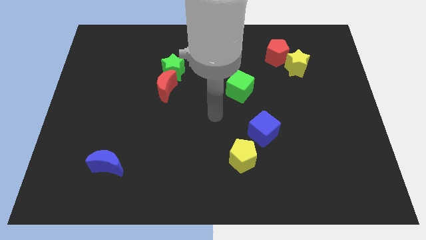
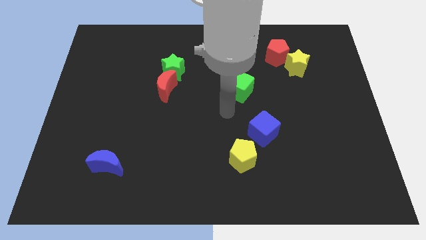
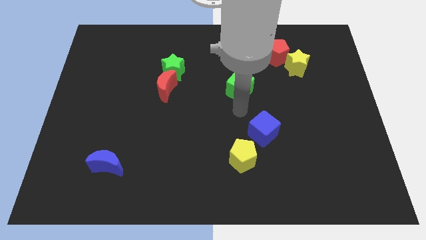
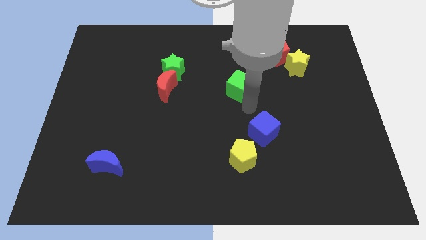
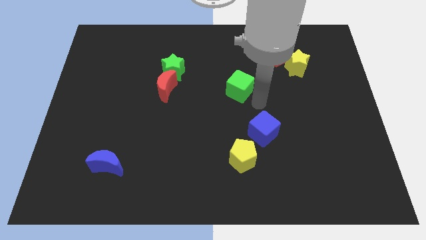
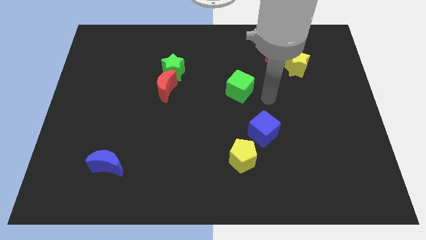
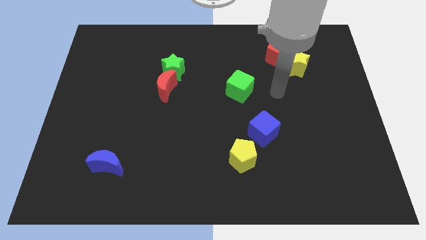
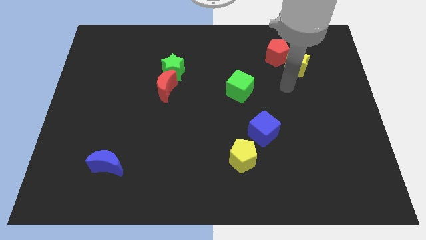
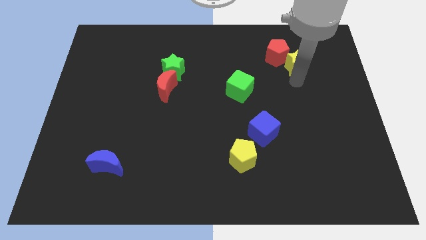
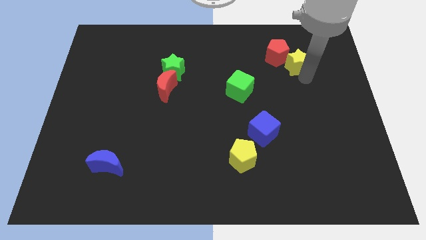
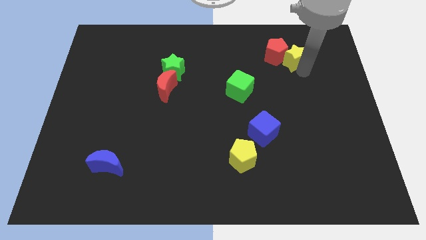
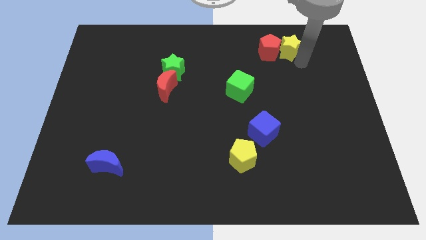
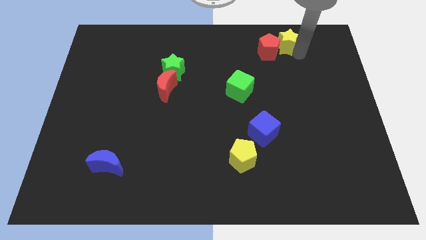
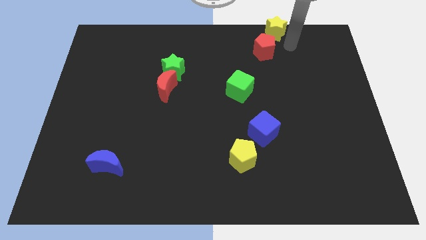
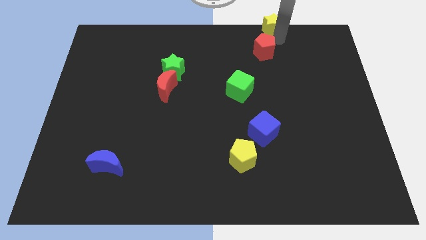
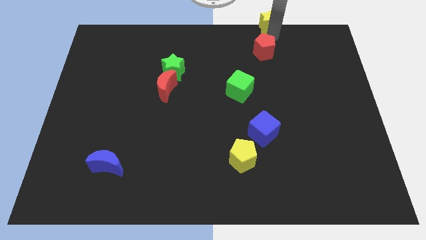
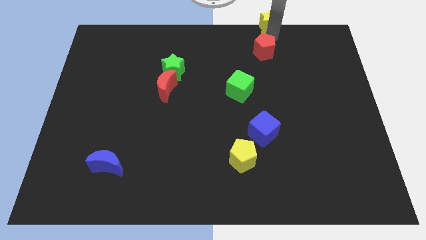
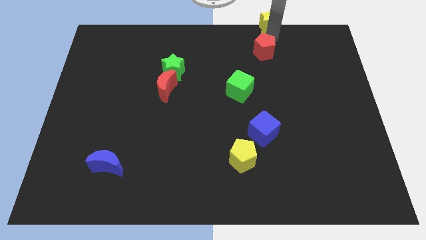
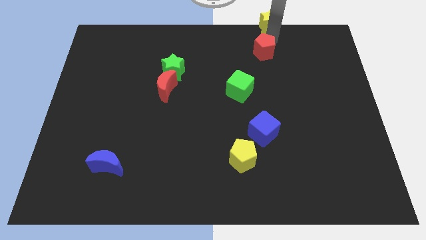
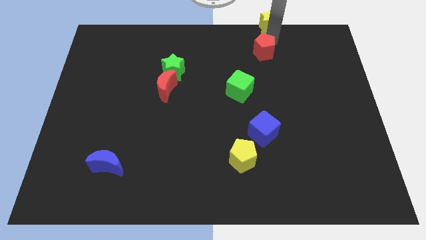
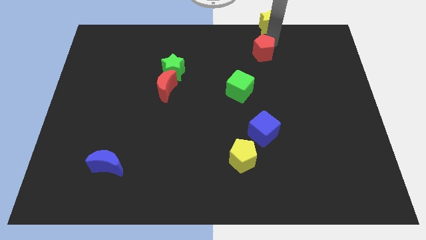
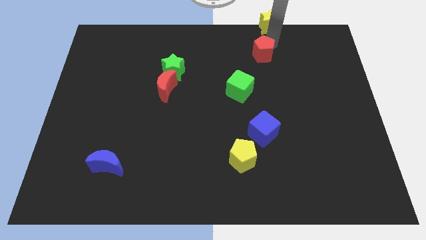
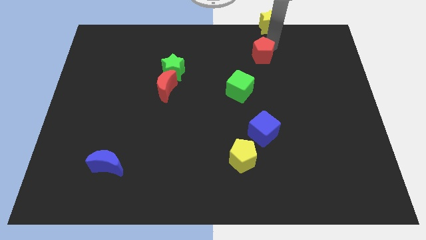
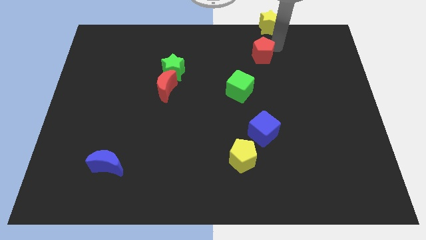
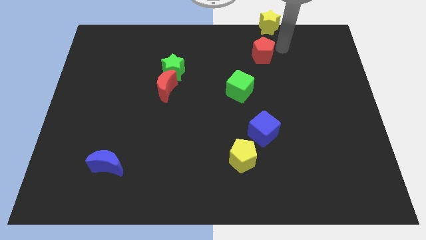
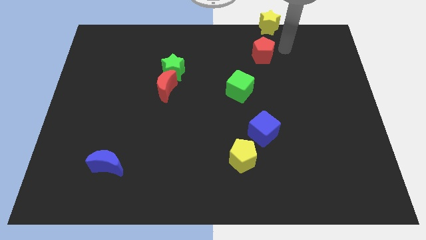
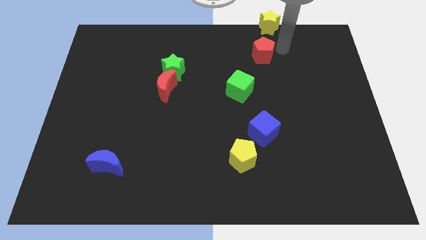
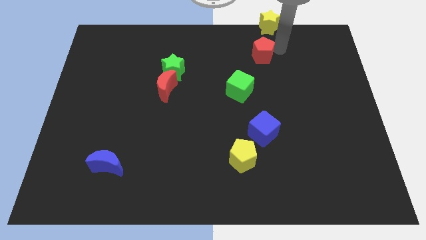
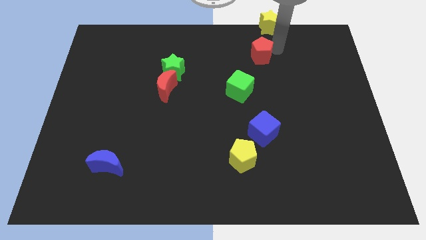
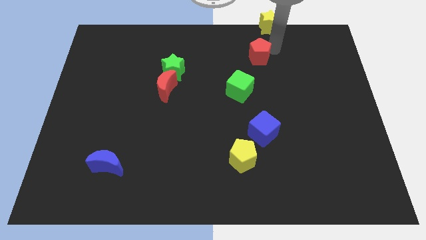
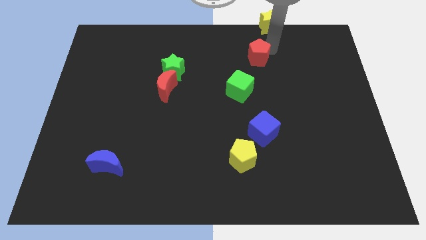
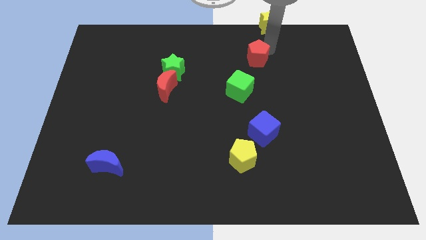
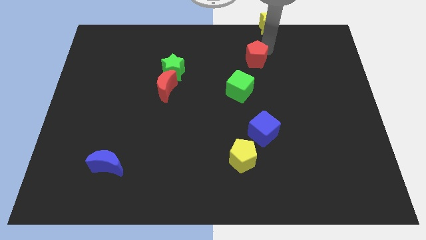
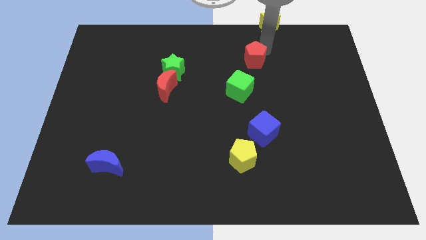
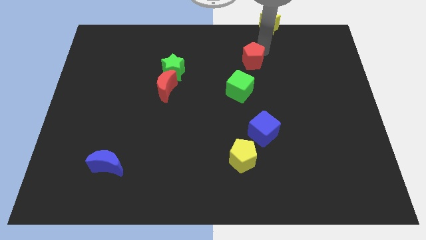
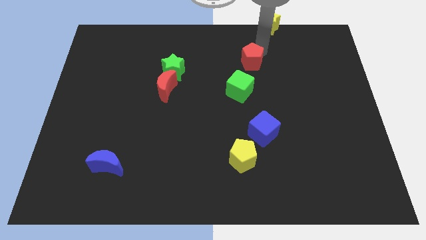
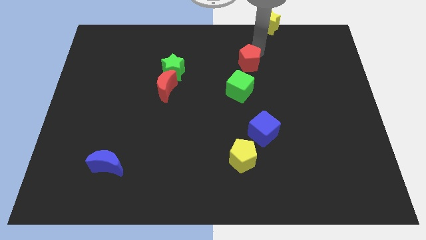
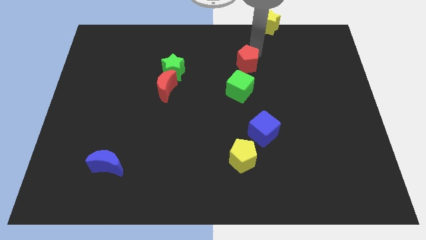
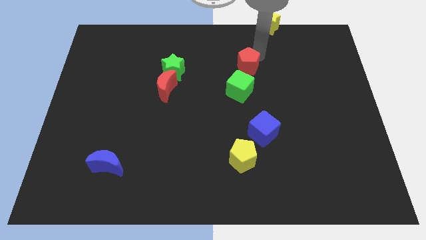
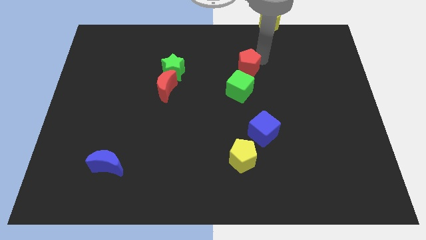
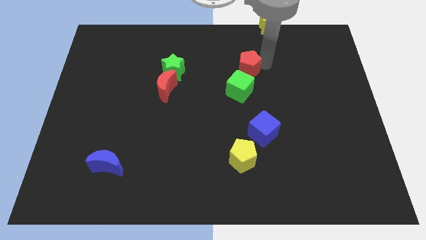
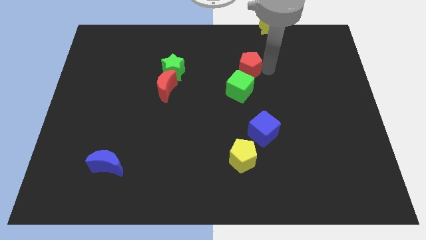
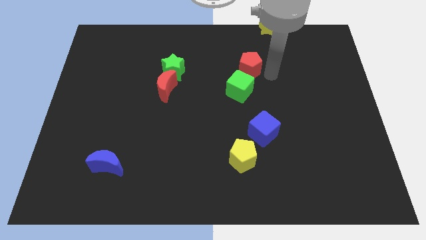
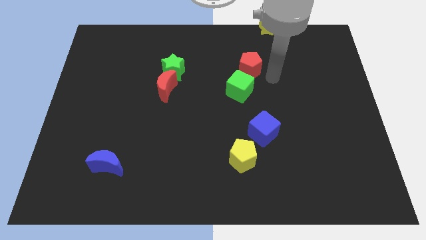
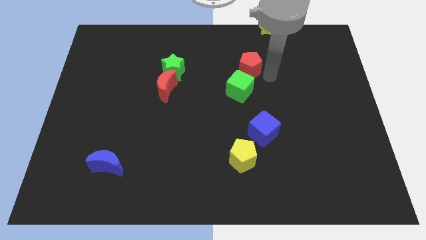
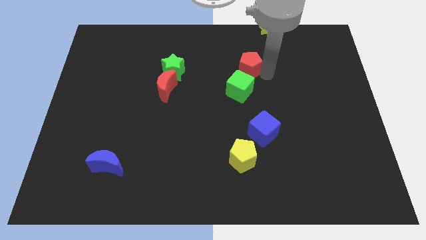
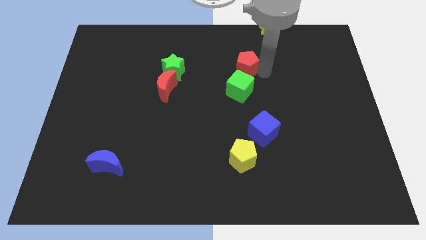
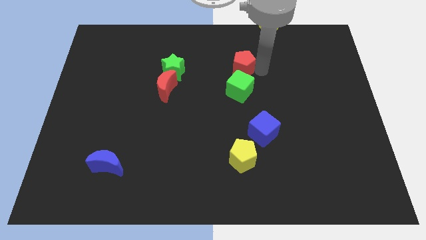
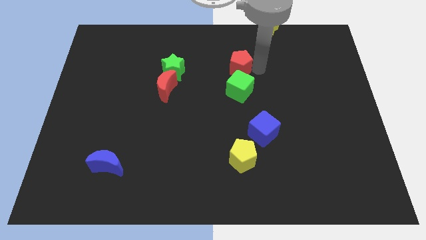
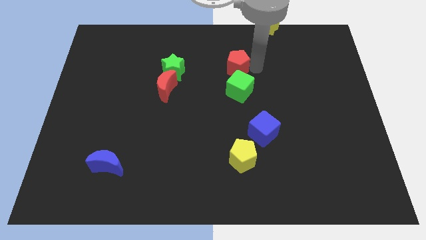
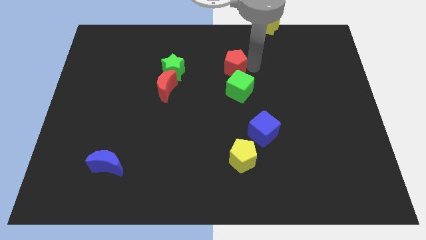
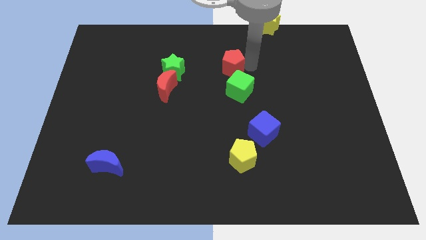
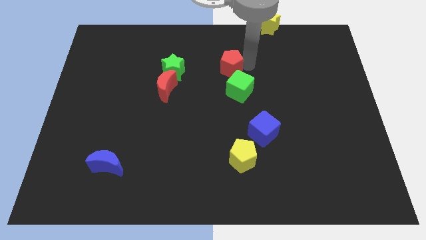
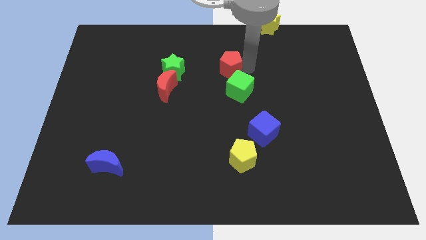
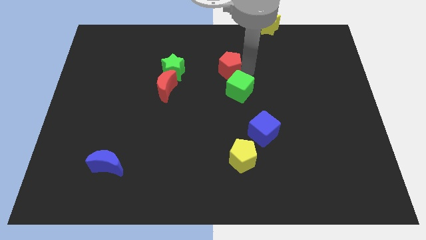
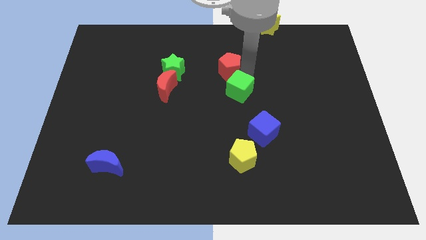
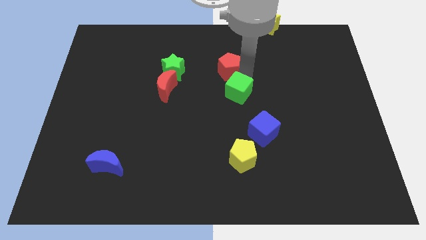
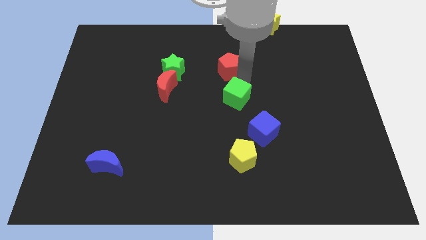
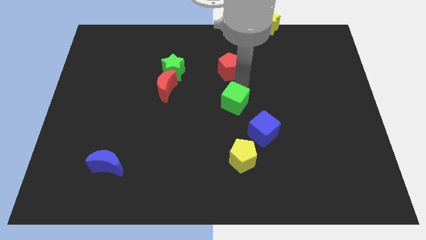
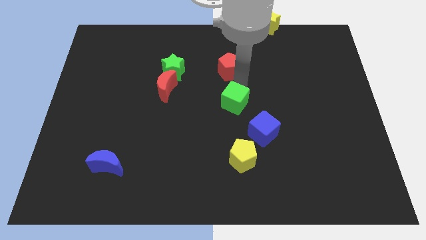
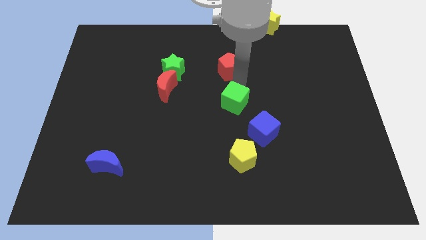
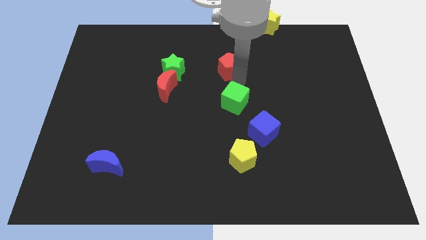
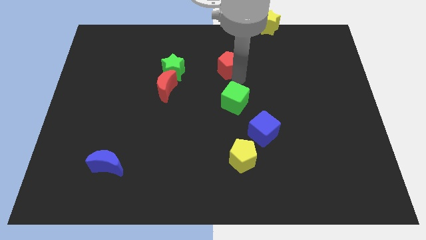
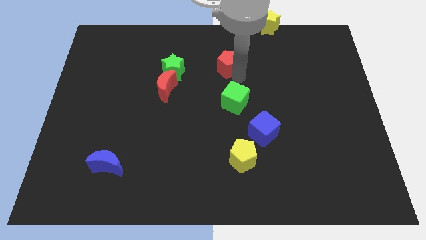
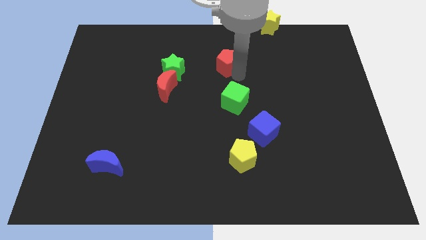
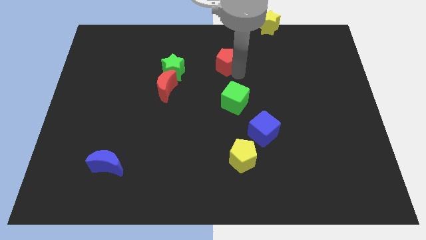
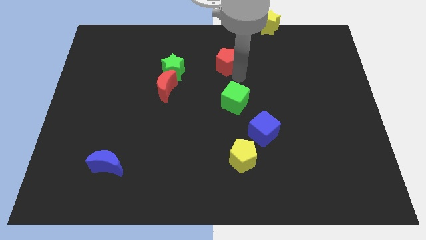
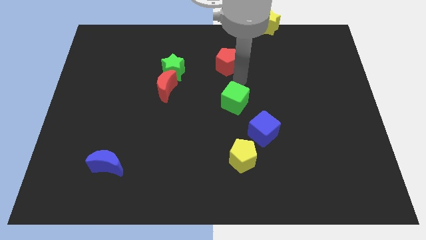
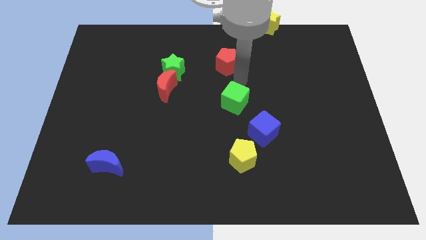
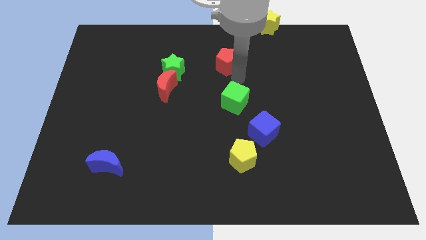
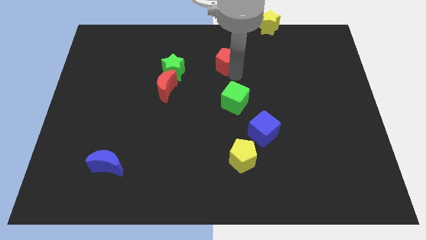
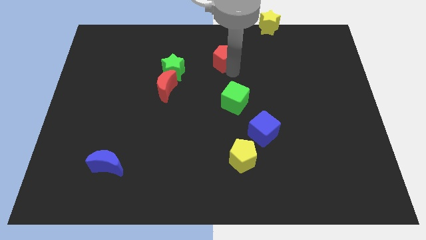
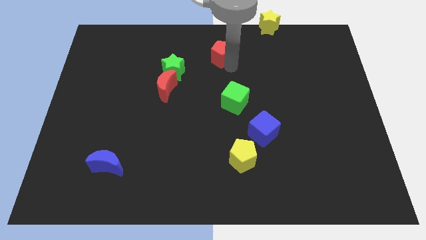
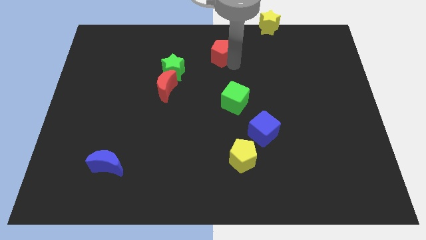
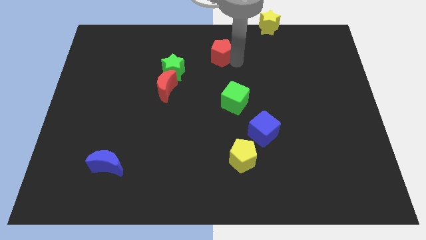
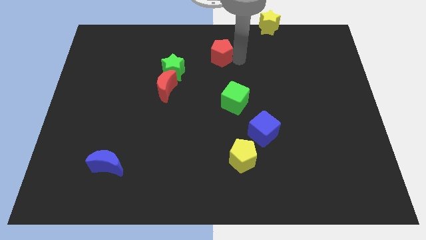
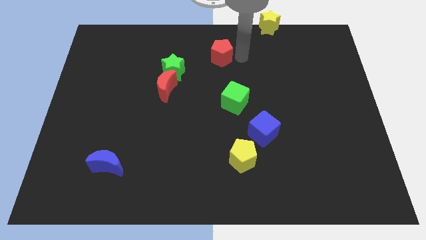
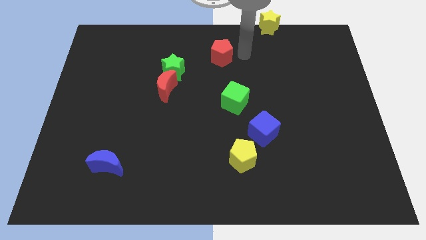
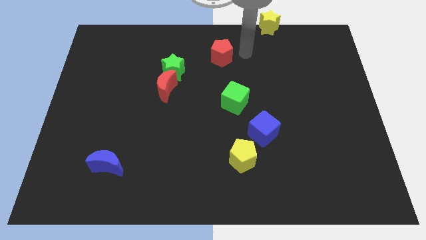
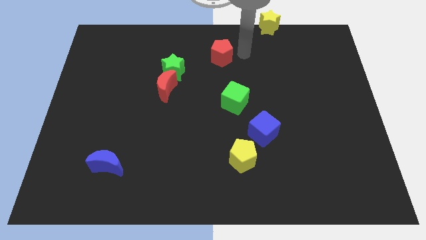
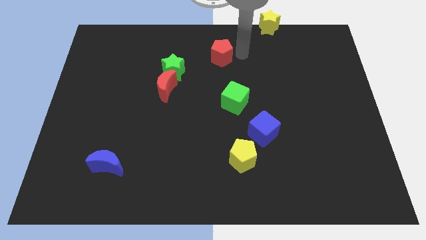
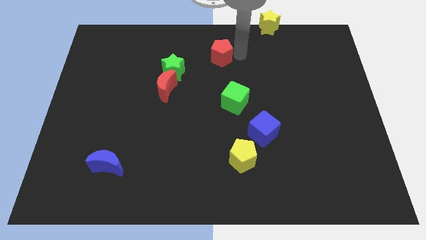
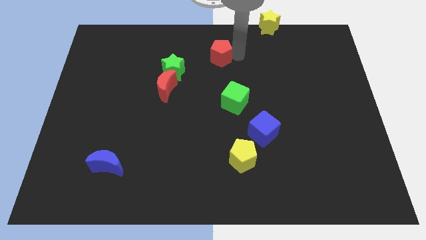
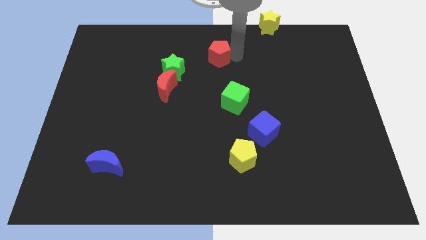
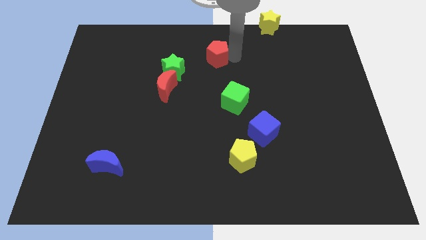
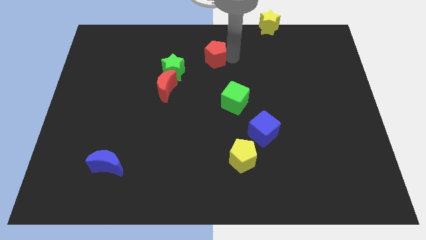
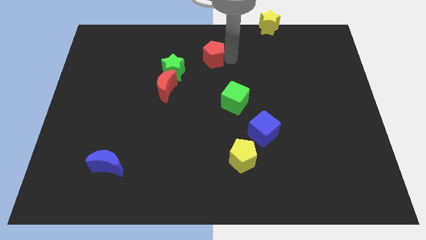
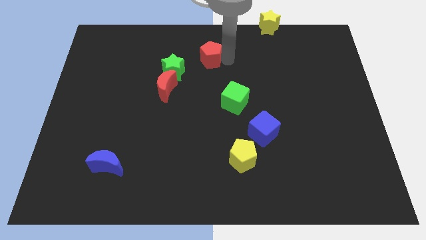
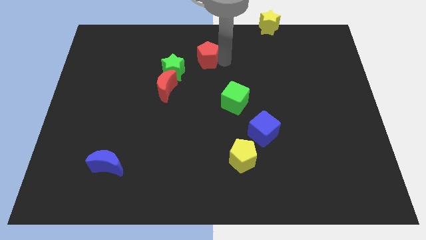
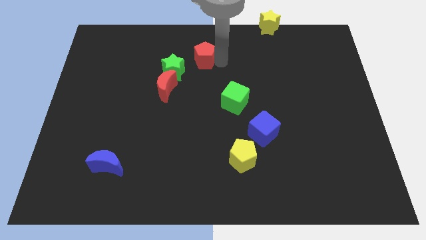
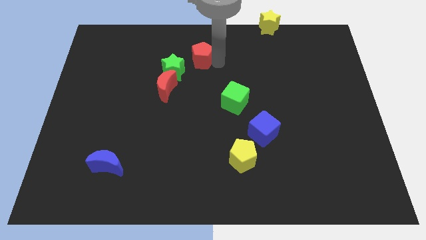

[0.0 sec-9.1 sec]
slide the red pentagon left
